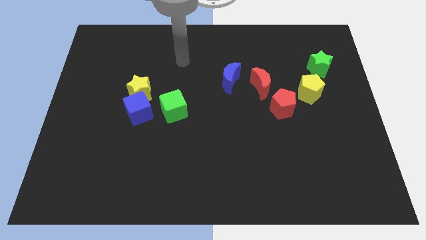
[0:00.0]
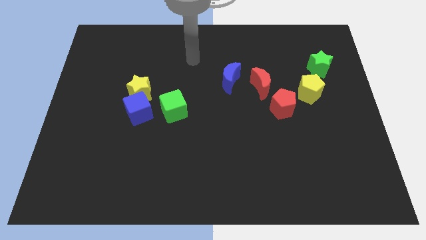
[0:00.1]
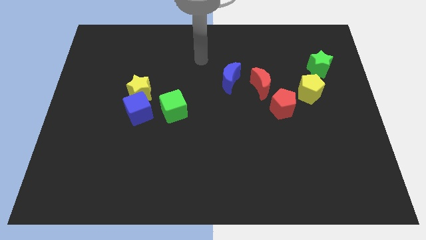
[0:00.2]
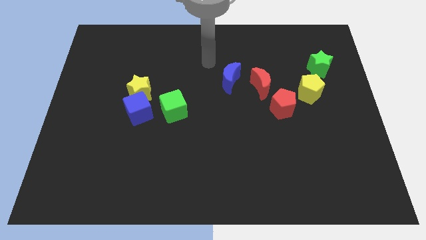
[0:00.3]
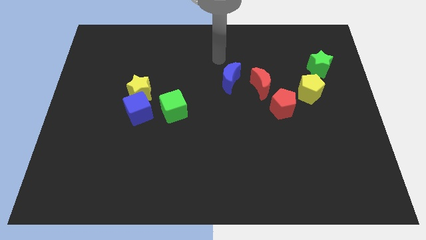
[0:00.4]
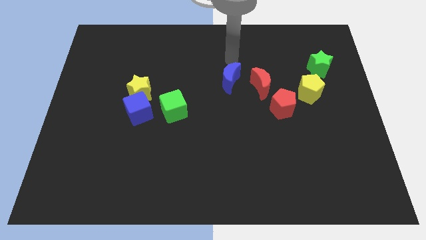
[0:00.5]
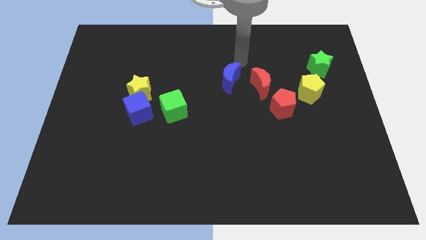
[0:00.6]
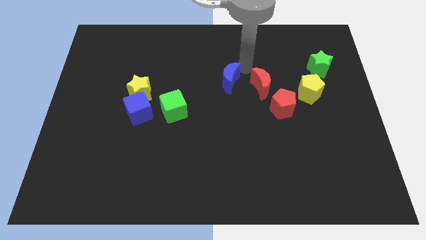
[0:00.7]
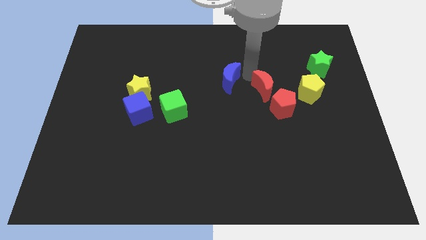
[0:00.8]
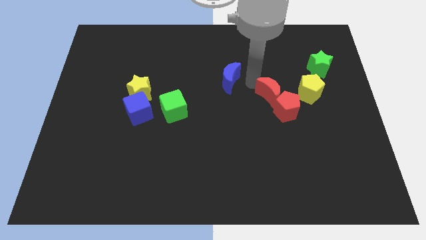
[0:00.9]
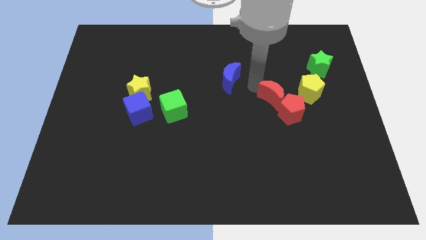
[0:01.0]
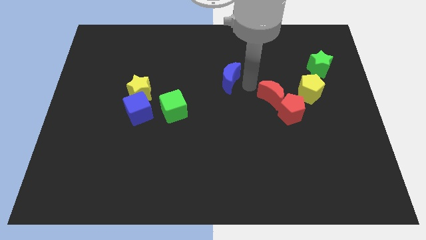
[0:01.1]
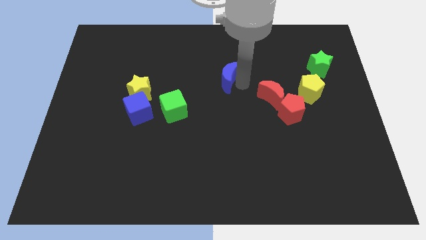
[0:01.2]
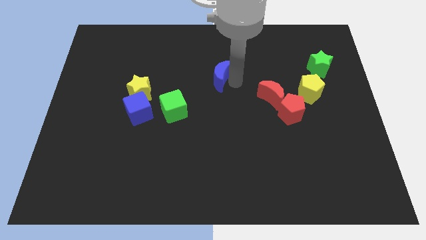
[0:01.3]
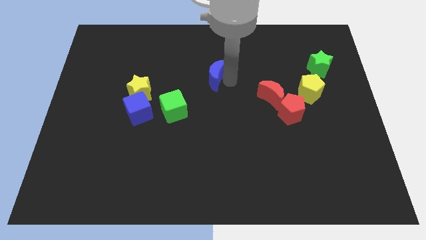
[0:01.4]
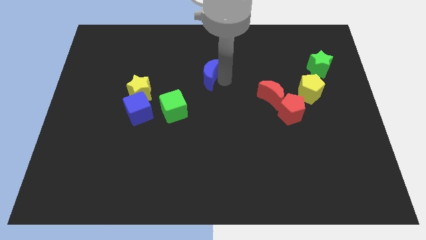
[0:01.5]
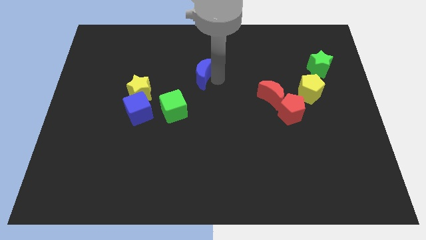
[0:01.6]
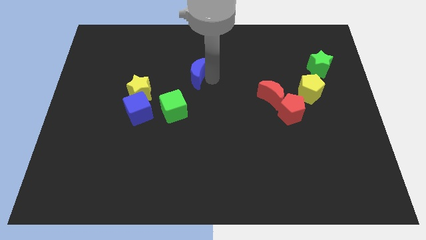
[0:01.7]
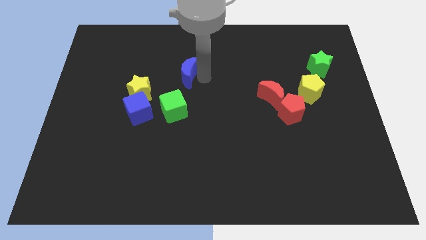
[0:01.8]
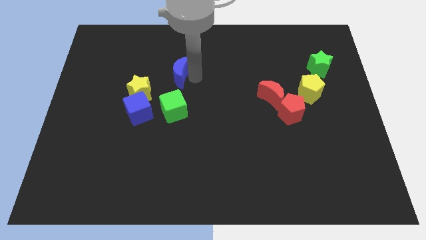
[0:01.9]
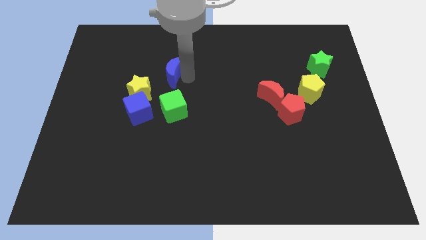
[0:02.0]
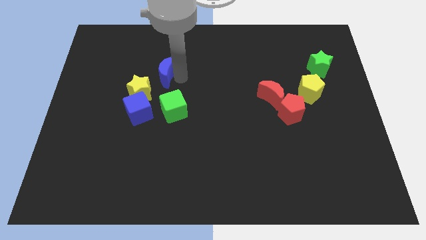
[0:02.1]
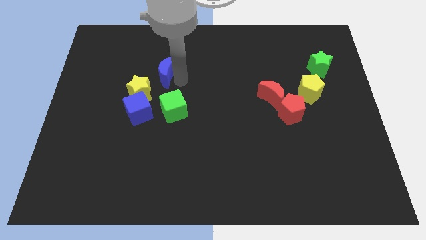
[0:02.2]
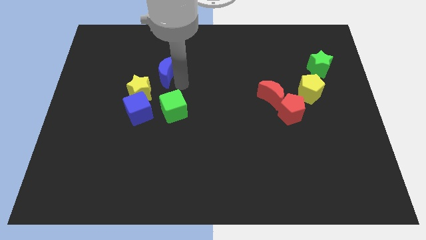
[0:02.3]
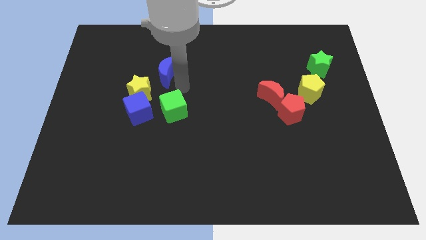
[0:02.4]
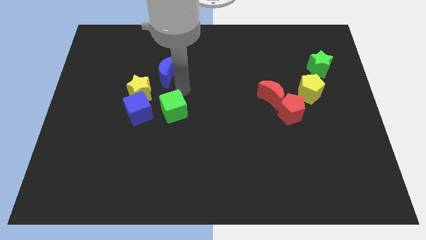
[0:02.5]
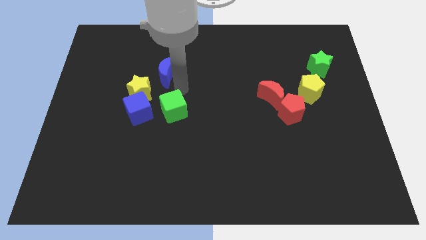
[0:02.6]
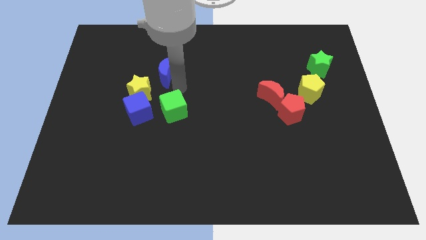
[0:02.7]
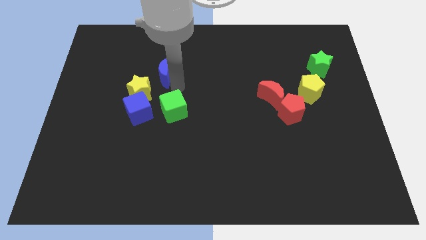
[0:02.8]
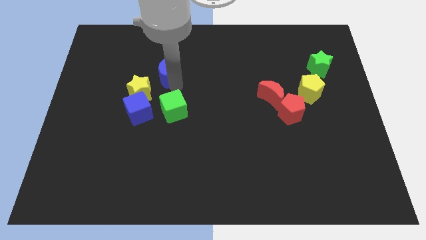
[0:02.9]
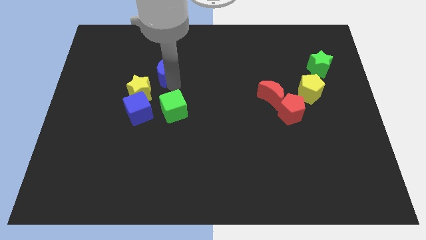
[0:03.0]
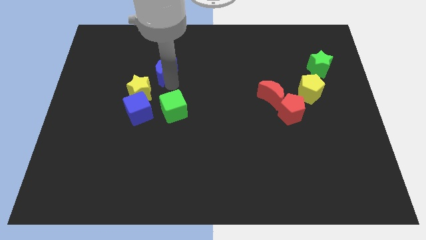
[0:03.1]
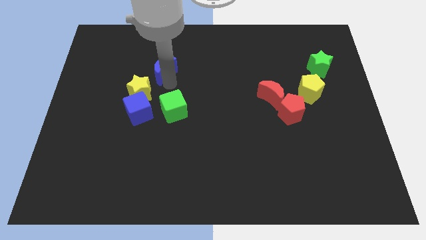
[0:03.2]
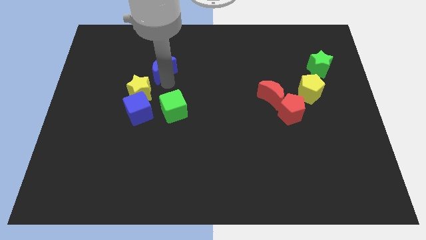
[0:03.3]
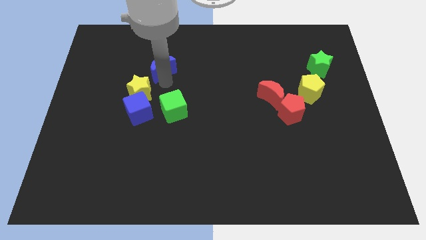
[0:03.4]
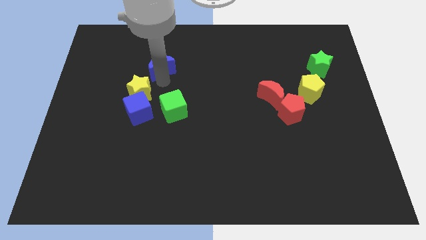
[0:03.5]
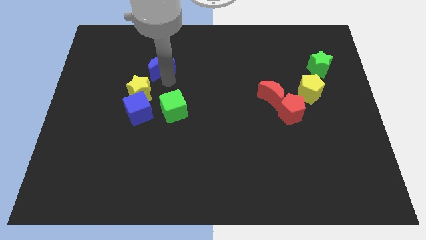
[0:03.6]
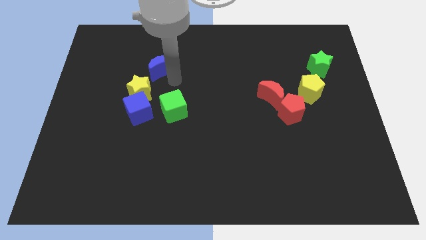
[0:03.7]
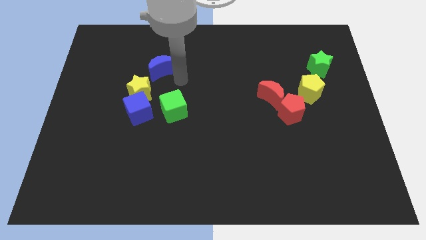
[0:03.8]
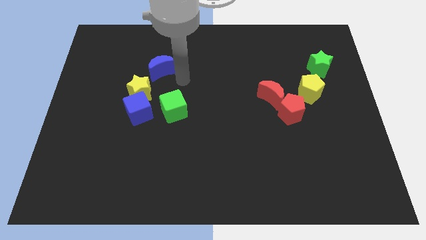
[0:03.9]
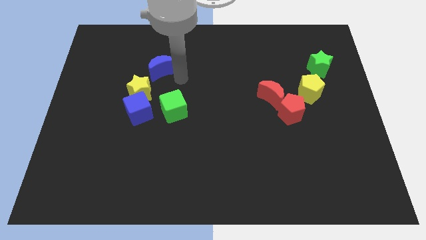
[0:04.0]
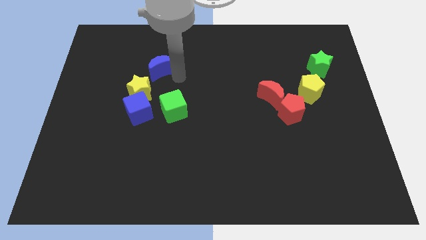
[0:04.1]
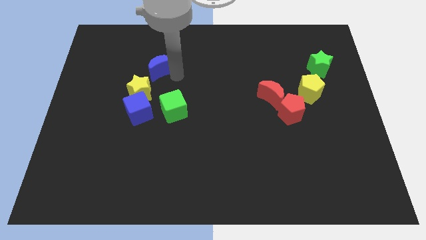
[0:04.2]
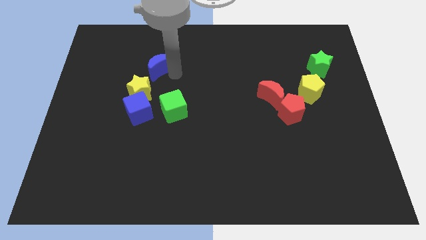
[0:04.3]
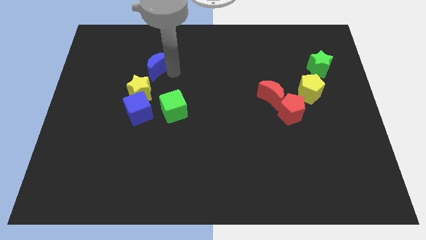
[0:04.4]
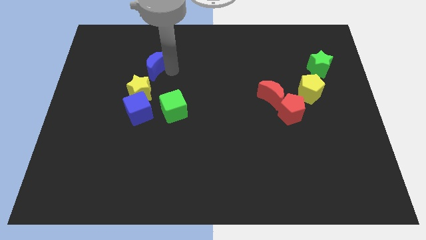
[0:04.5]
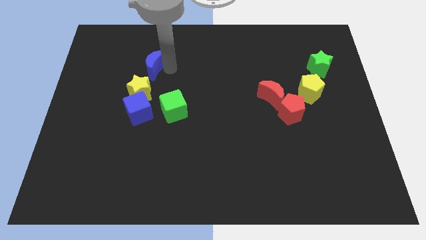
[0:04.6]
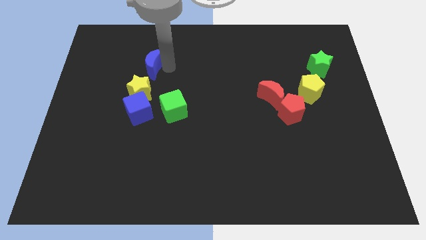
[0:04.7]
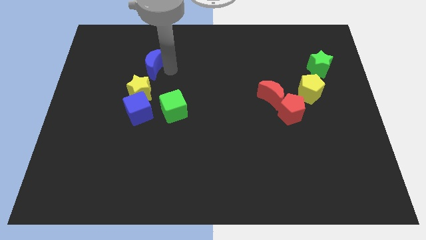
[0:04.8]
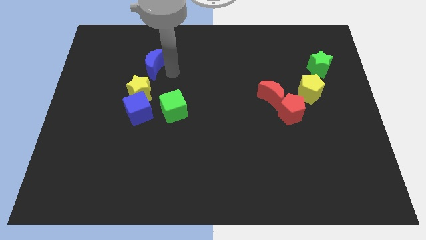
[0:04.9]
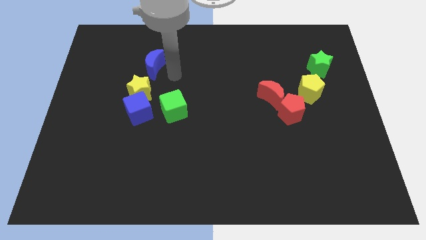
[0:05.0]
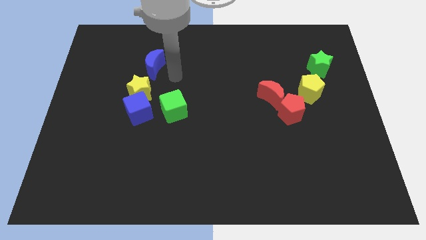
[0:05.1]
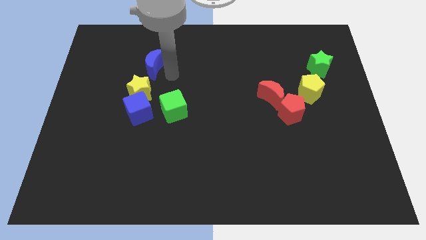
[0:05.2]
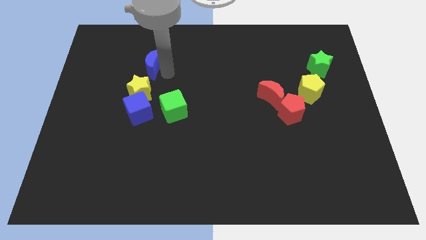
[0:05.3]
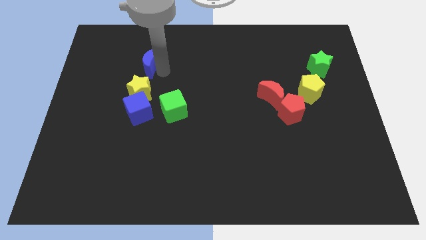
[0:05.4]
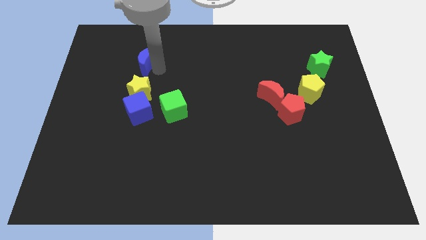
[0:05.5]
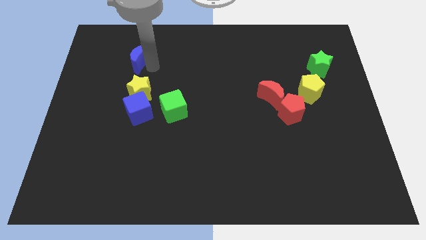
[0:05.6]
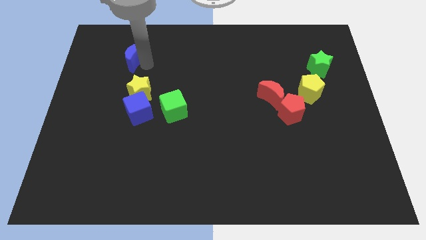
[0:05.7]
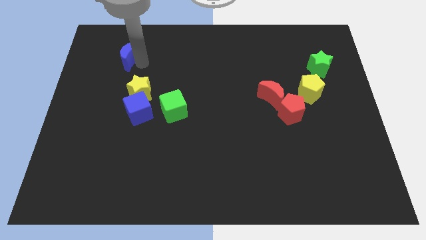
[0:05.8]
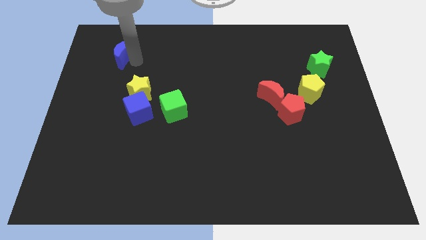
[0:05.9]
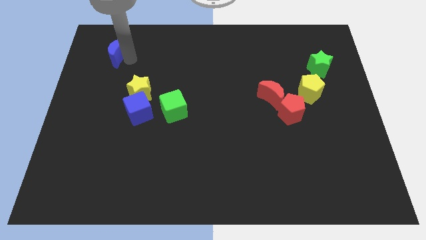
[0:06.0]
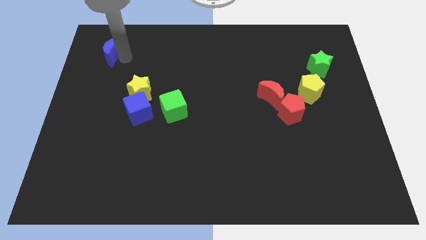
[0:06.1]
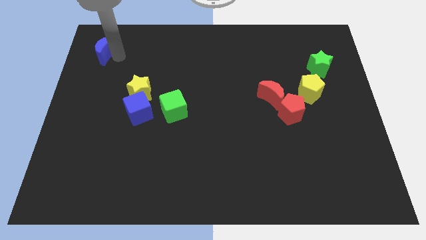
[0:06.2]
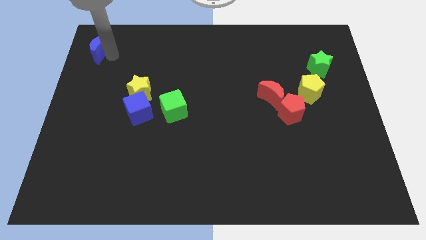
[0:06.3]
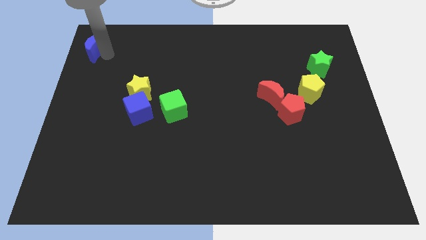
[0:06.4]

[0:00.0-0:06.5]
slide the blue moon to the top left of the board

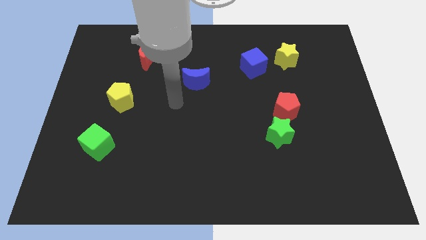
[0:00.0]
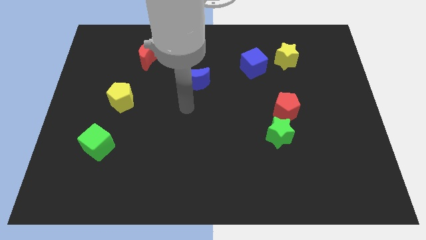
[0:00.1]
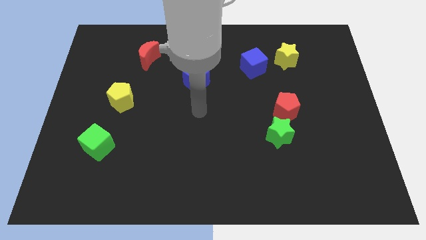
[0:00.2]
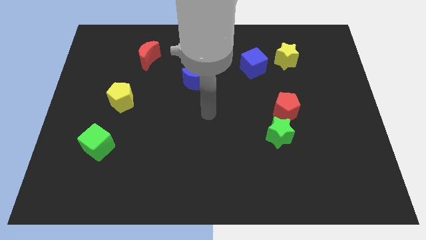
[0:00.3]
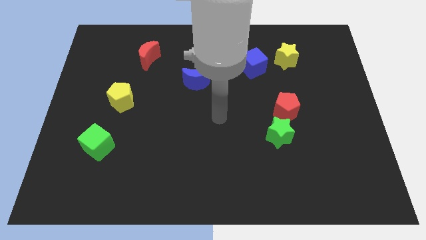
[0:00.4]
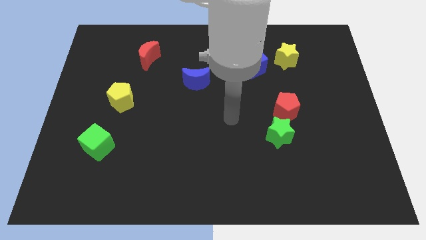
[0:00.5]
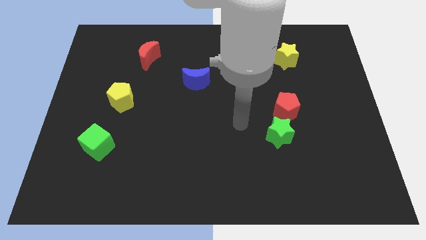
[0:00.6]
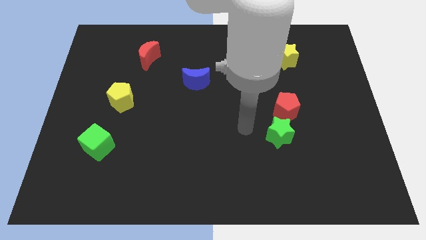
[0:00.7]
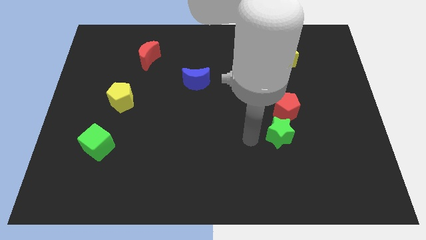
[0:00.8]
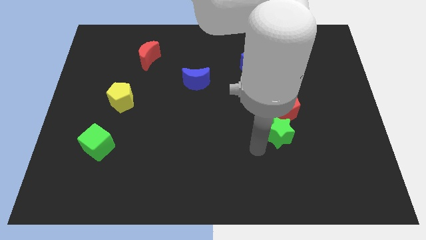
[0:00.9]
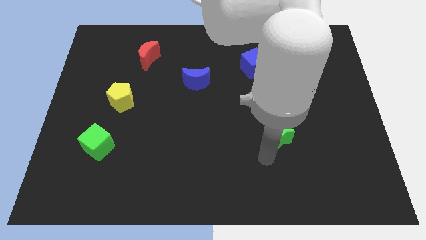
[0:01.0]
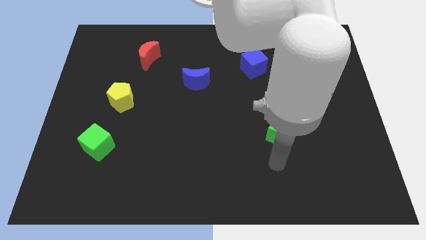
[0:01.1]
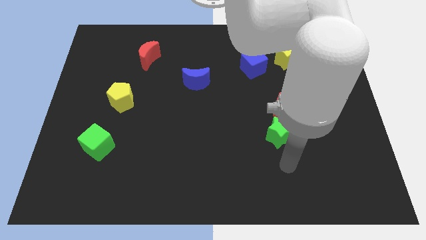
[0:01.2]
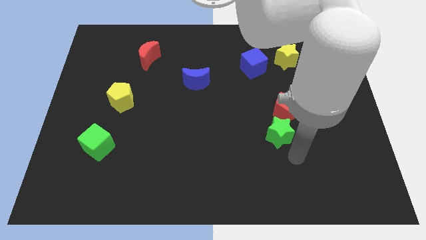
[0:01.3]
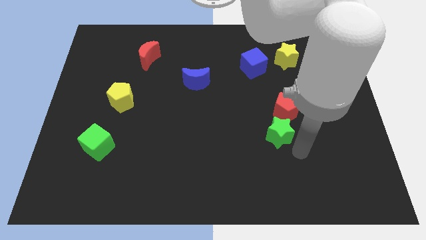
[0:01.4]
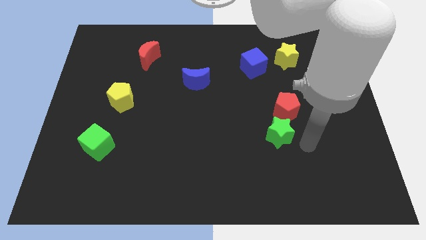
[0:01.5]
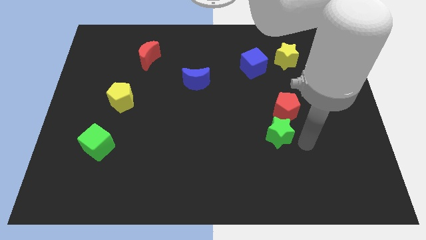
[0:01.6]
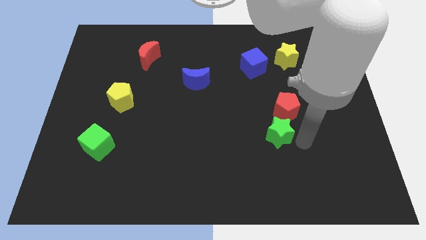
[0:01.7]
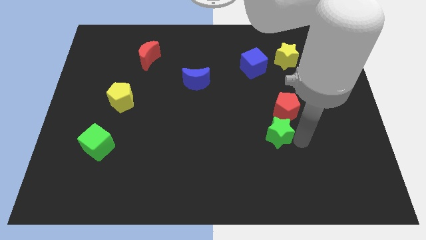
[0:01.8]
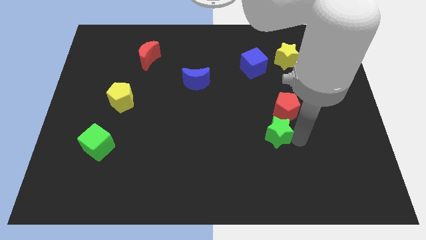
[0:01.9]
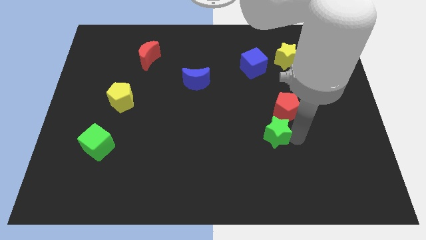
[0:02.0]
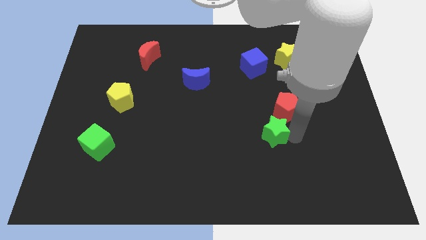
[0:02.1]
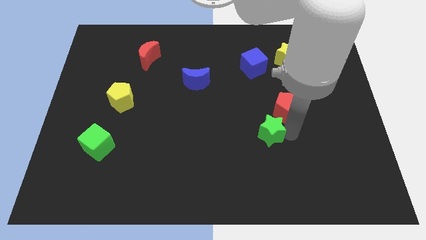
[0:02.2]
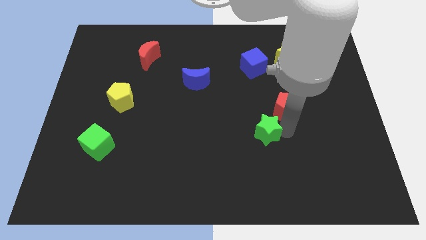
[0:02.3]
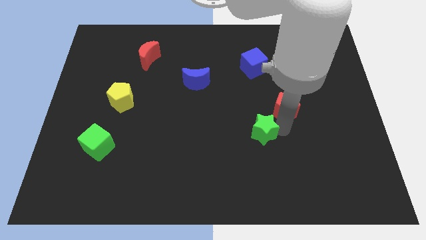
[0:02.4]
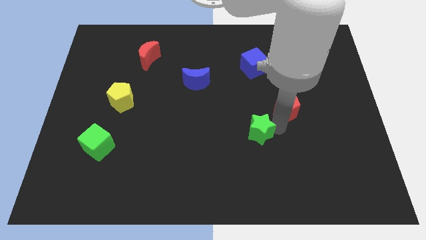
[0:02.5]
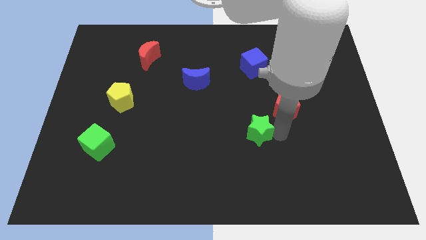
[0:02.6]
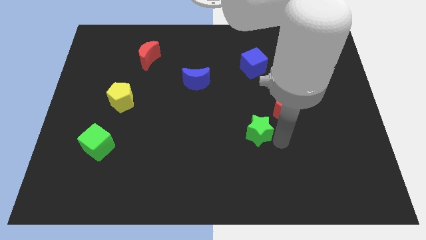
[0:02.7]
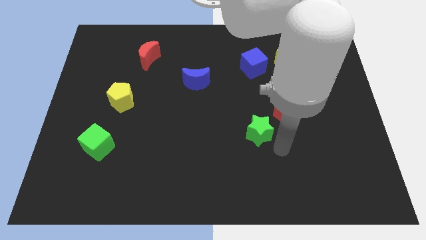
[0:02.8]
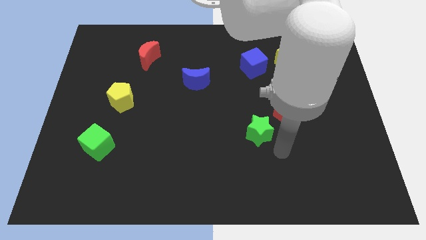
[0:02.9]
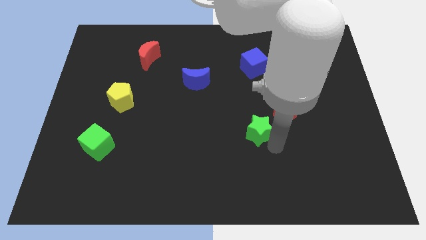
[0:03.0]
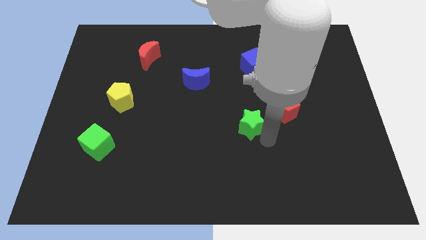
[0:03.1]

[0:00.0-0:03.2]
slide the green star to the center of the board
